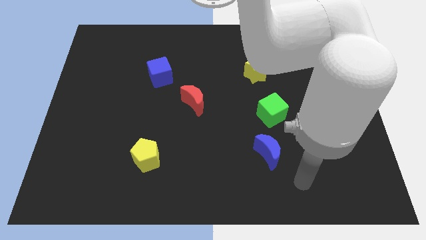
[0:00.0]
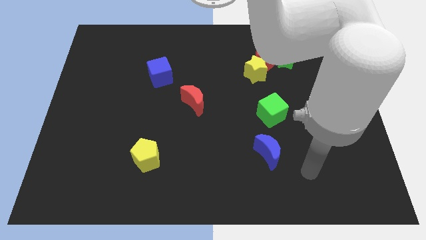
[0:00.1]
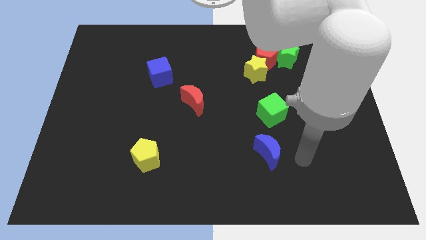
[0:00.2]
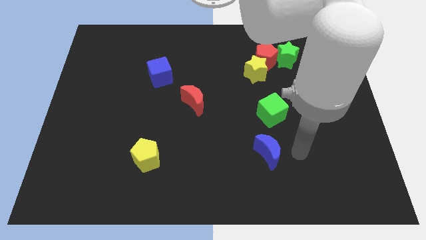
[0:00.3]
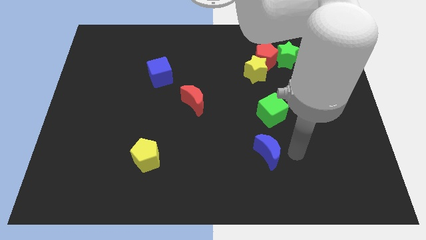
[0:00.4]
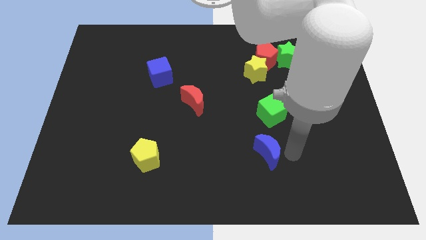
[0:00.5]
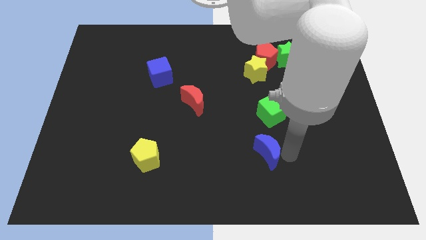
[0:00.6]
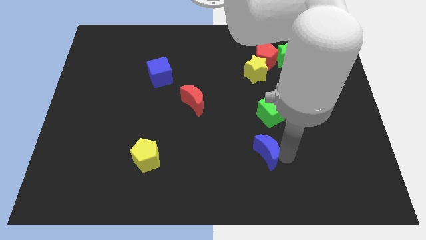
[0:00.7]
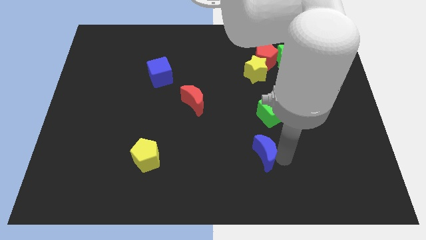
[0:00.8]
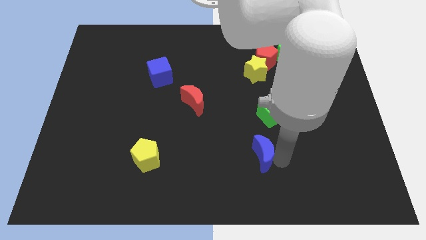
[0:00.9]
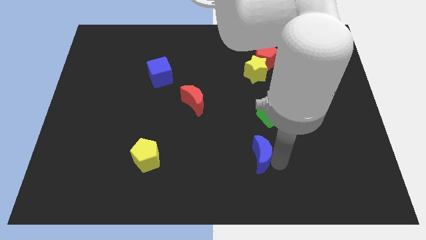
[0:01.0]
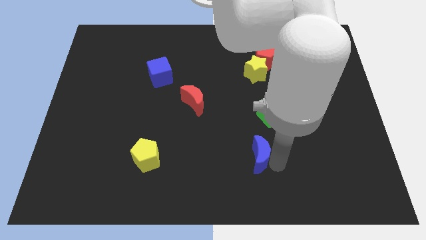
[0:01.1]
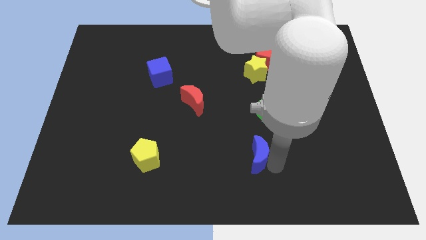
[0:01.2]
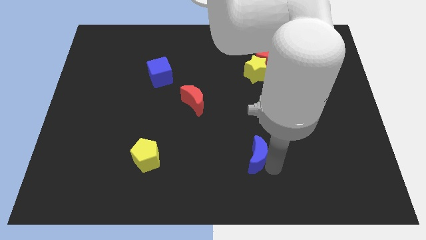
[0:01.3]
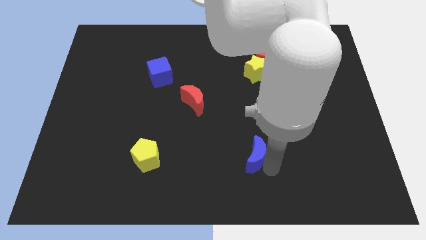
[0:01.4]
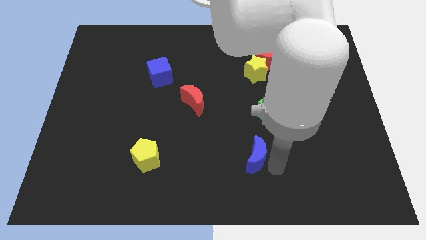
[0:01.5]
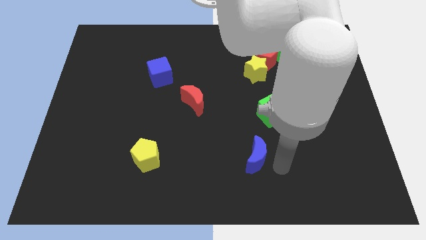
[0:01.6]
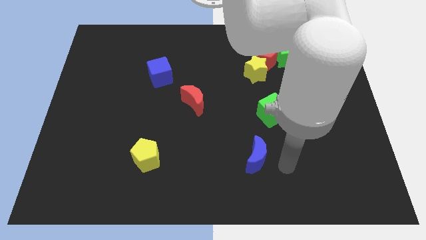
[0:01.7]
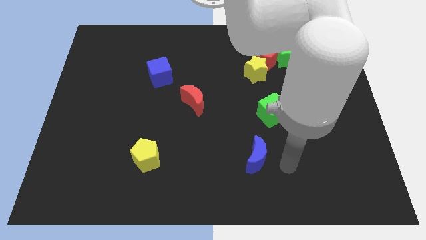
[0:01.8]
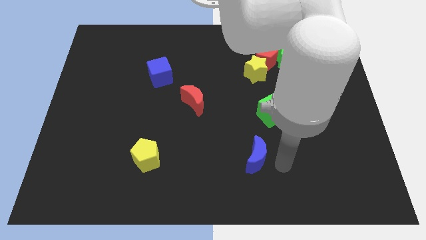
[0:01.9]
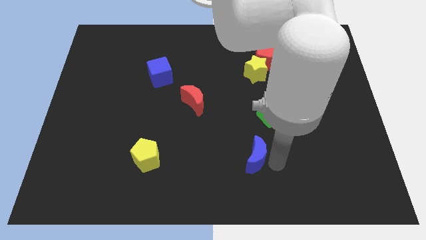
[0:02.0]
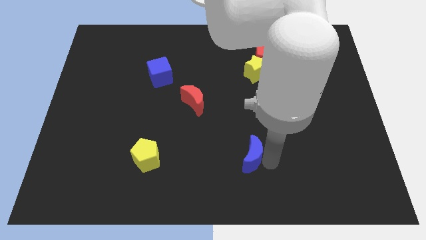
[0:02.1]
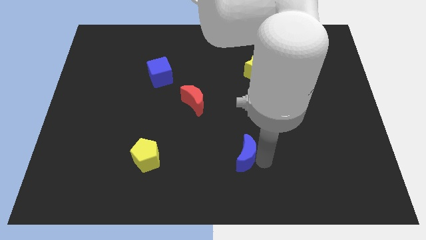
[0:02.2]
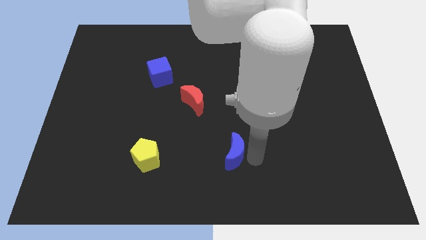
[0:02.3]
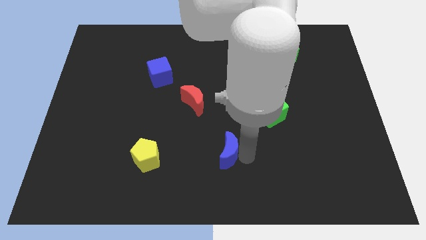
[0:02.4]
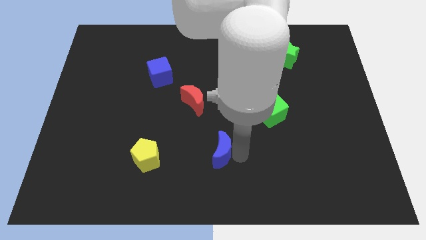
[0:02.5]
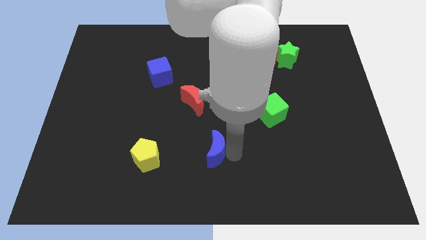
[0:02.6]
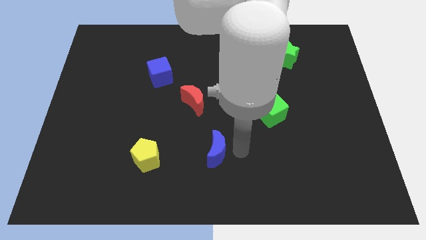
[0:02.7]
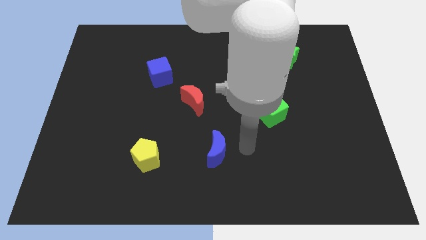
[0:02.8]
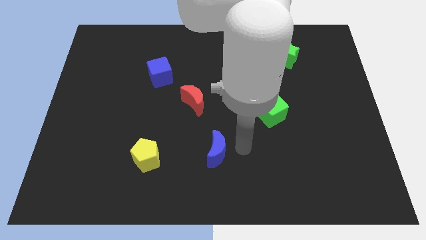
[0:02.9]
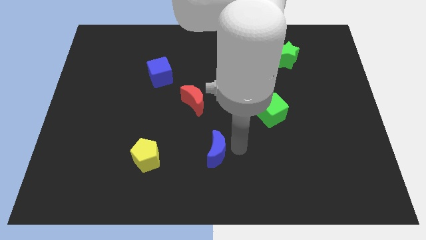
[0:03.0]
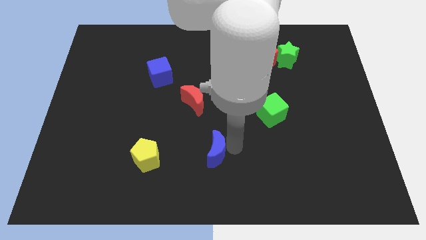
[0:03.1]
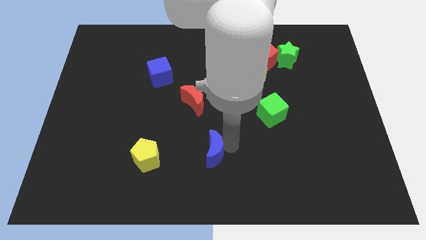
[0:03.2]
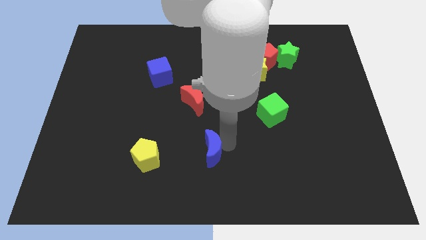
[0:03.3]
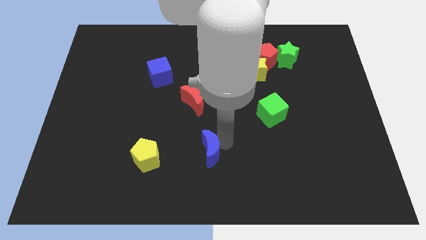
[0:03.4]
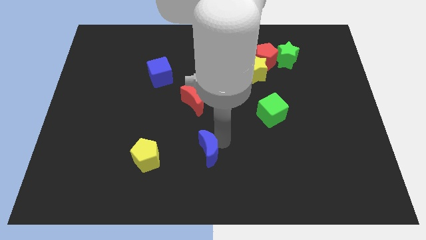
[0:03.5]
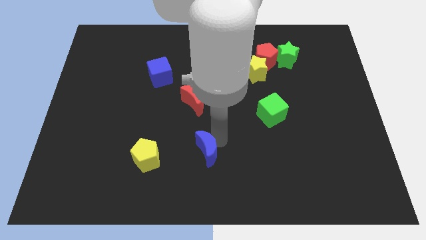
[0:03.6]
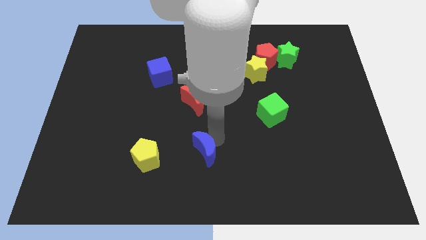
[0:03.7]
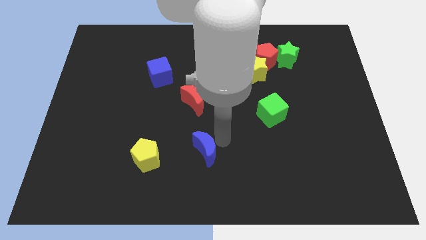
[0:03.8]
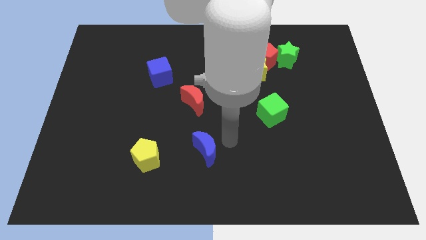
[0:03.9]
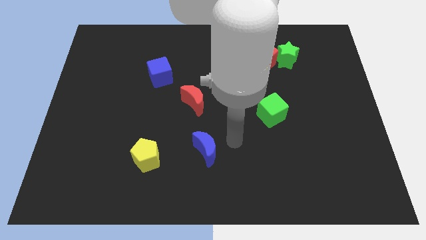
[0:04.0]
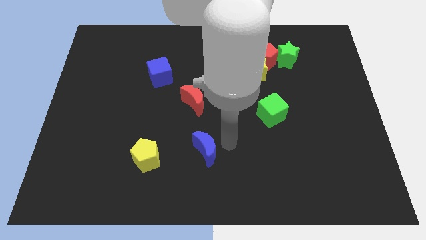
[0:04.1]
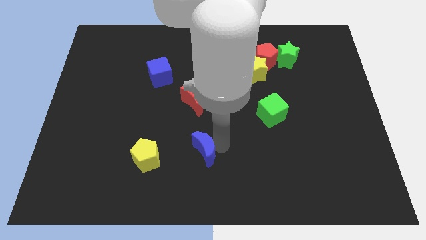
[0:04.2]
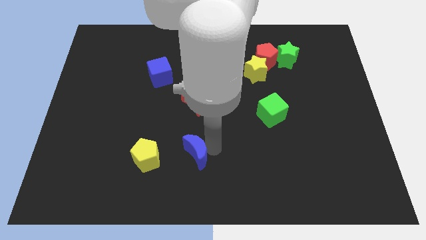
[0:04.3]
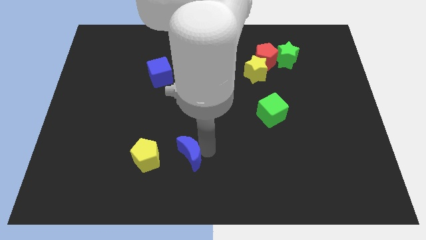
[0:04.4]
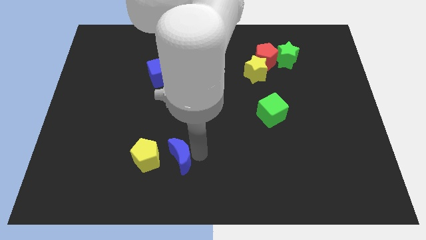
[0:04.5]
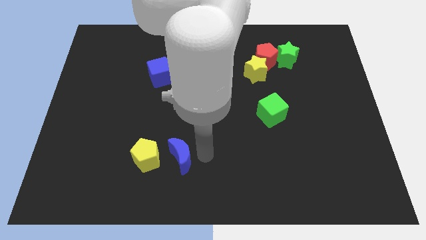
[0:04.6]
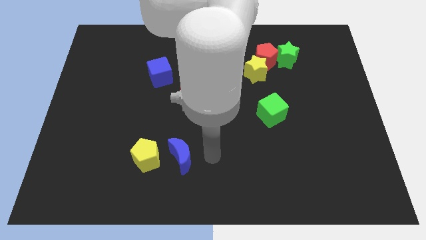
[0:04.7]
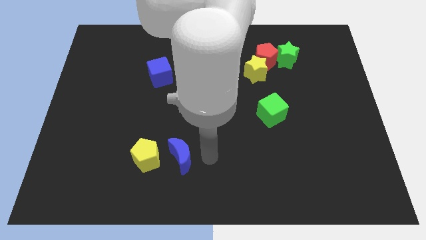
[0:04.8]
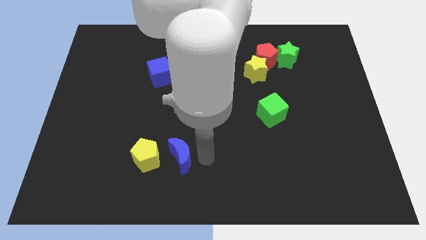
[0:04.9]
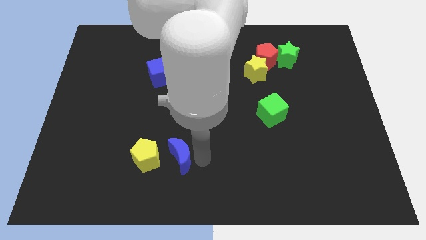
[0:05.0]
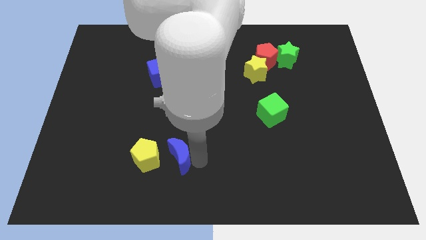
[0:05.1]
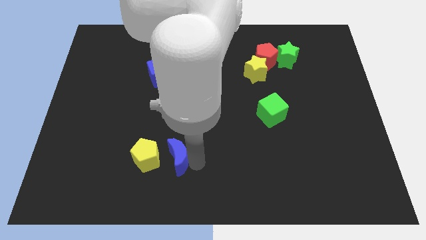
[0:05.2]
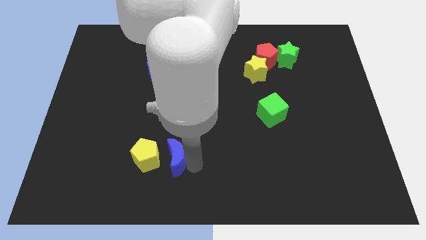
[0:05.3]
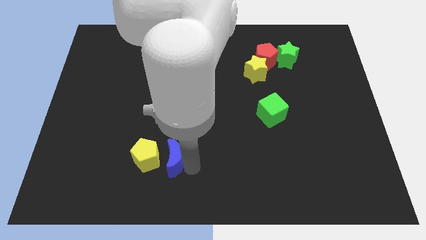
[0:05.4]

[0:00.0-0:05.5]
move the blue moon towards the yellow pentagon

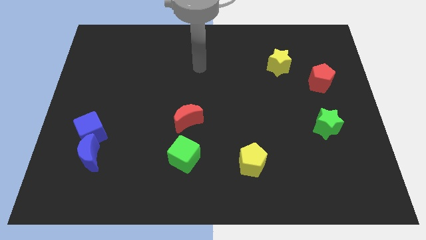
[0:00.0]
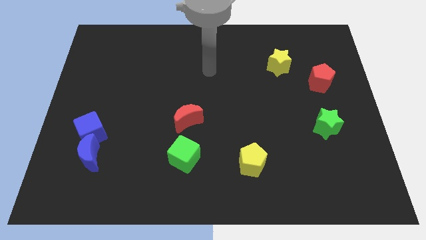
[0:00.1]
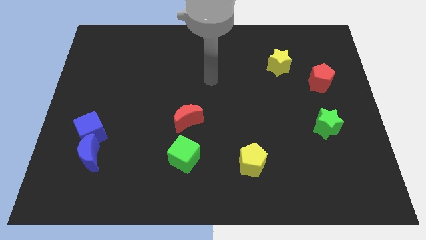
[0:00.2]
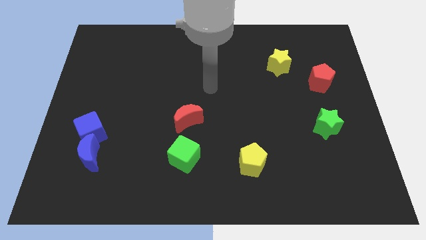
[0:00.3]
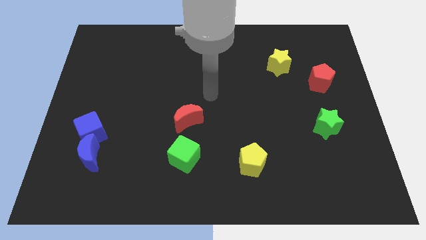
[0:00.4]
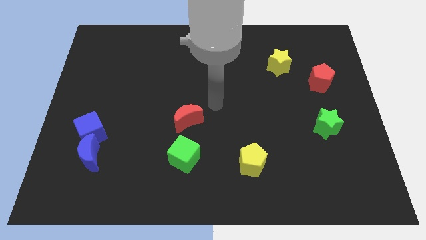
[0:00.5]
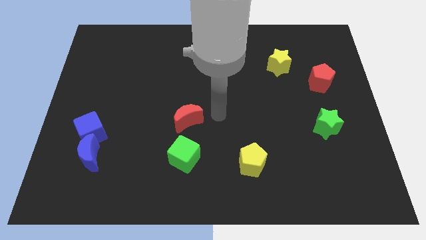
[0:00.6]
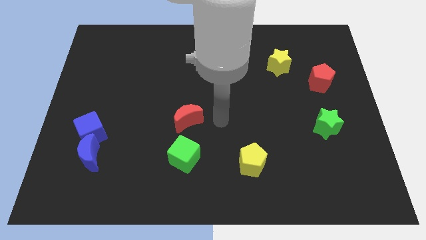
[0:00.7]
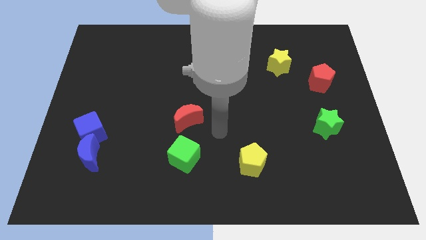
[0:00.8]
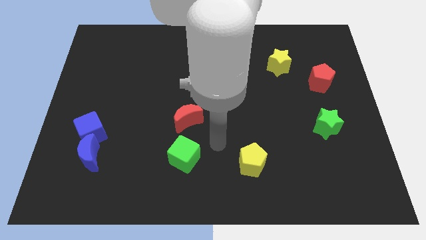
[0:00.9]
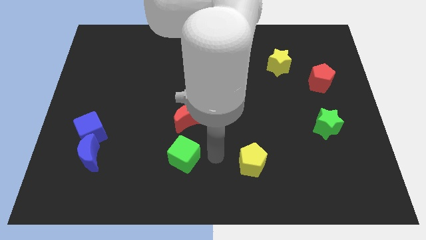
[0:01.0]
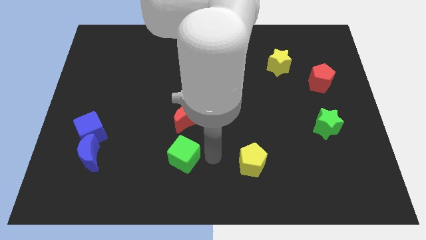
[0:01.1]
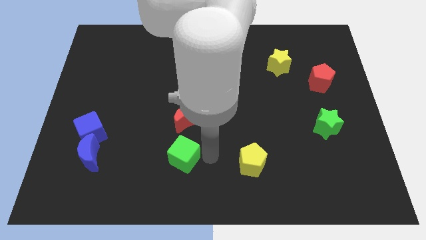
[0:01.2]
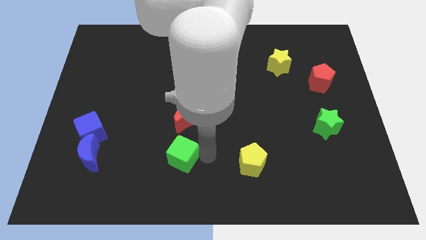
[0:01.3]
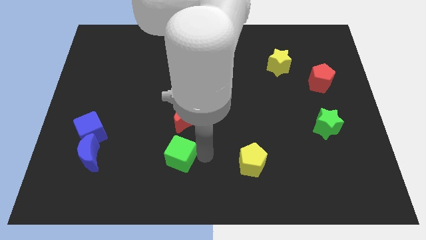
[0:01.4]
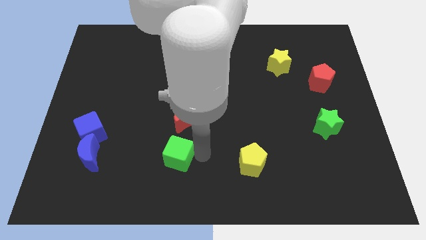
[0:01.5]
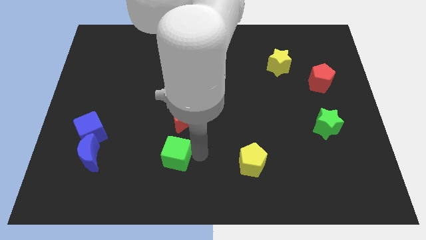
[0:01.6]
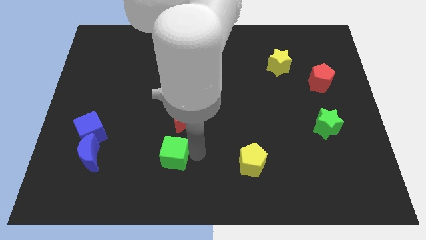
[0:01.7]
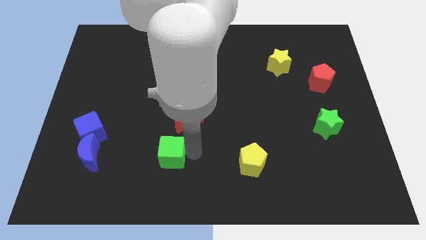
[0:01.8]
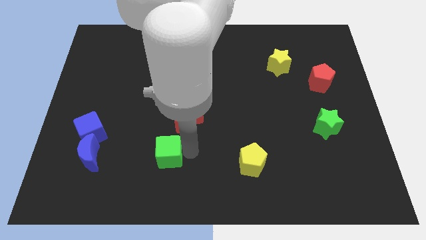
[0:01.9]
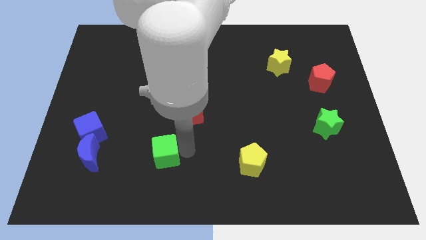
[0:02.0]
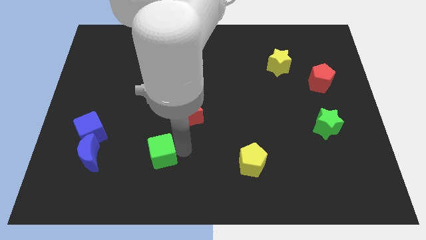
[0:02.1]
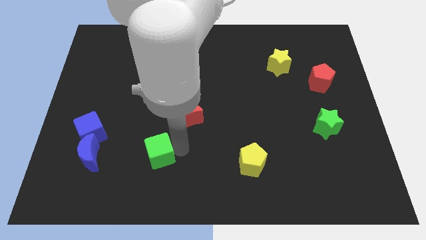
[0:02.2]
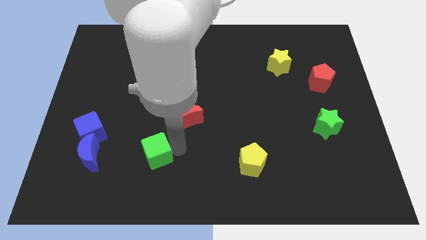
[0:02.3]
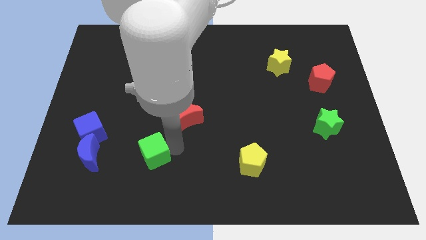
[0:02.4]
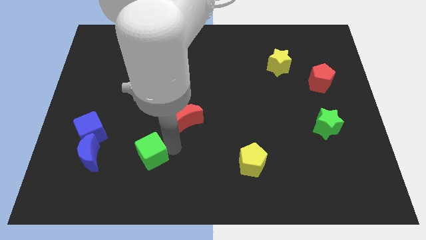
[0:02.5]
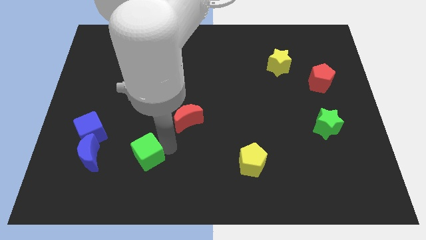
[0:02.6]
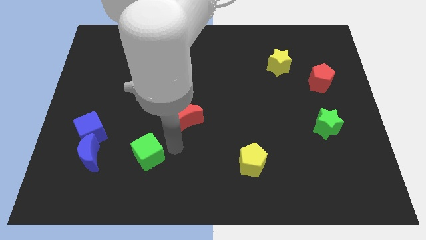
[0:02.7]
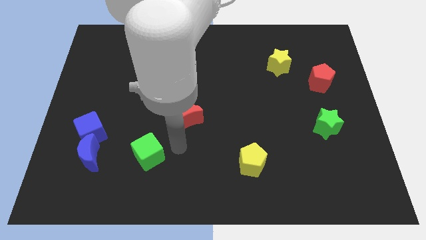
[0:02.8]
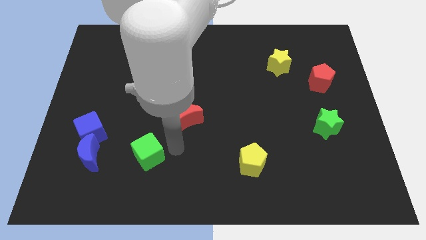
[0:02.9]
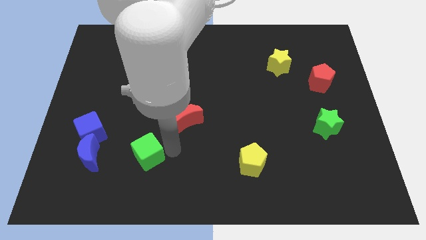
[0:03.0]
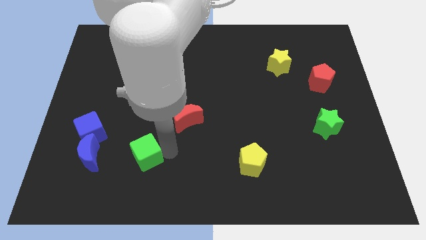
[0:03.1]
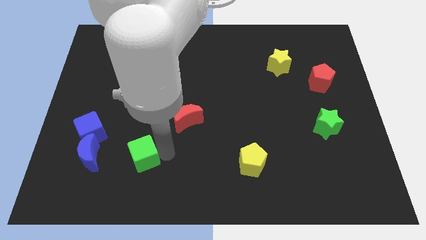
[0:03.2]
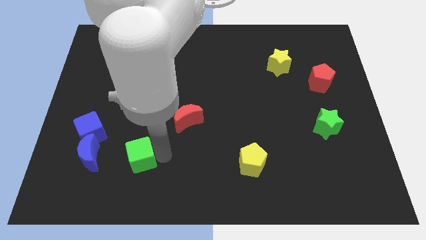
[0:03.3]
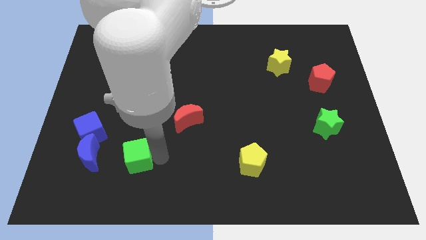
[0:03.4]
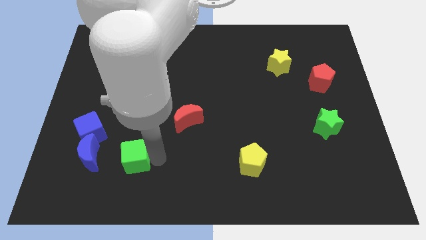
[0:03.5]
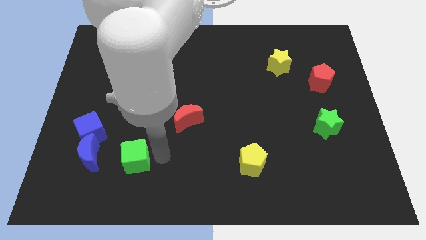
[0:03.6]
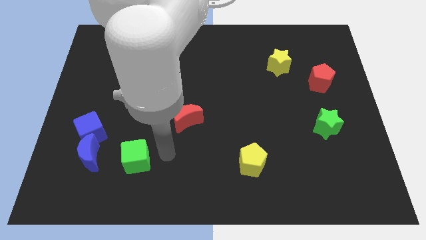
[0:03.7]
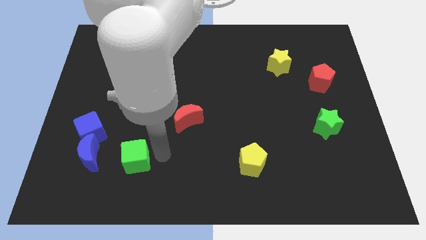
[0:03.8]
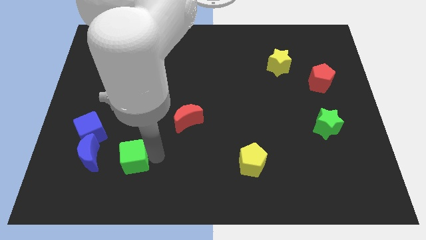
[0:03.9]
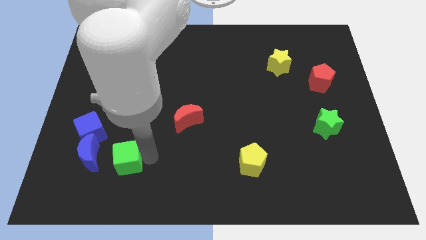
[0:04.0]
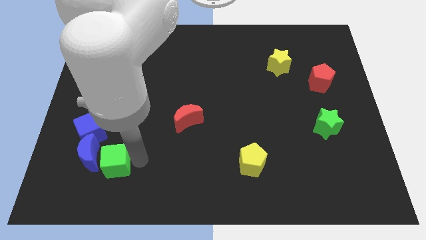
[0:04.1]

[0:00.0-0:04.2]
push the green cube next to the blue moon
